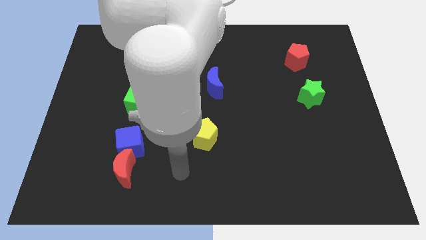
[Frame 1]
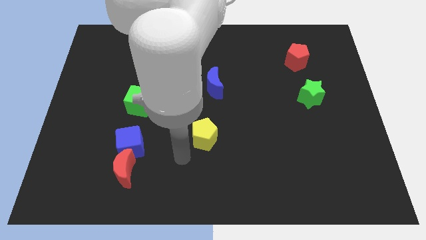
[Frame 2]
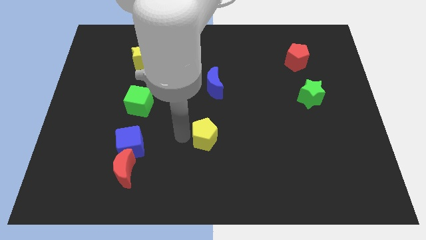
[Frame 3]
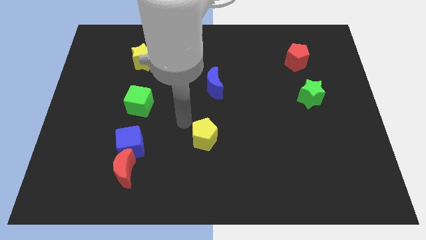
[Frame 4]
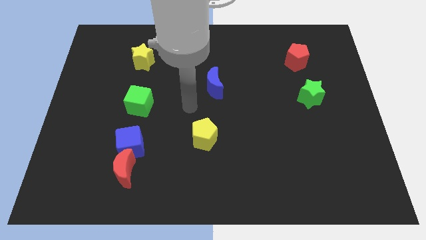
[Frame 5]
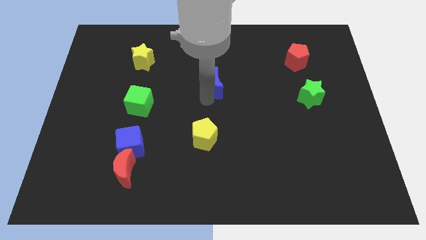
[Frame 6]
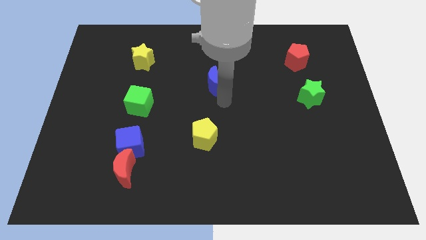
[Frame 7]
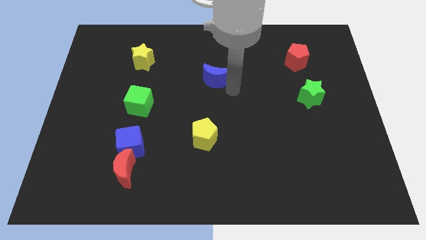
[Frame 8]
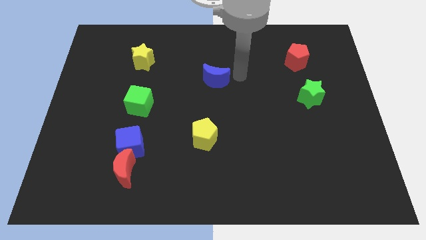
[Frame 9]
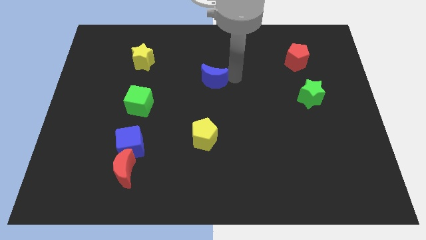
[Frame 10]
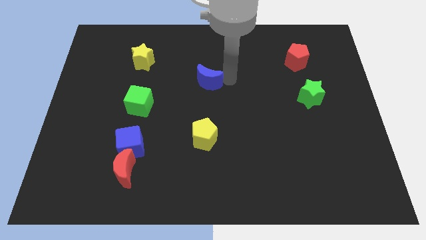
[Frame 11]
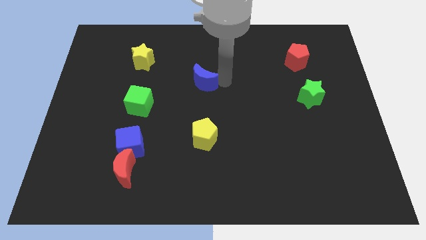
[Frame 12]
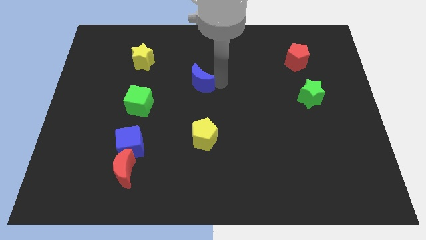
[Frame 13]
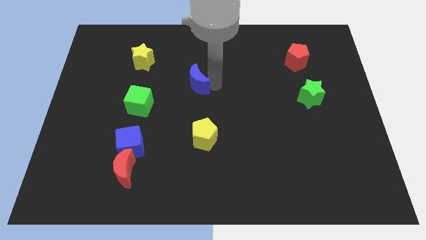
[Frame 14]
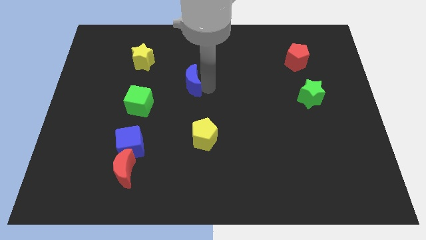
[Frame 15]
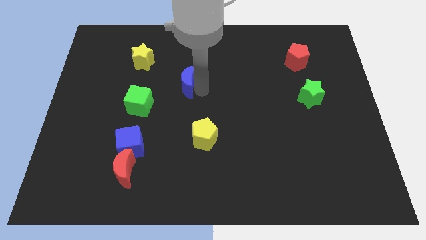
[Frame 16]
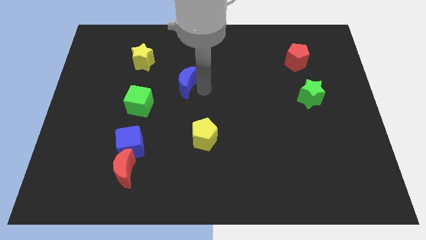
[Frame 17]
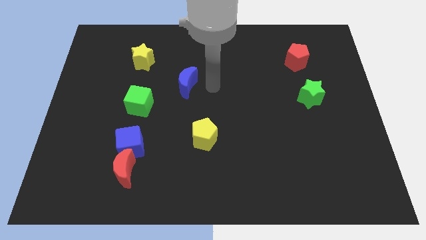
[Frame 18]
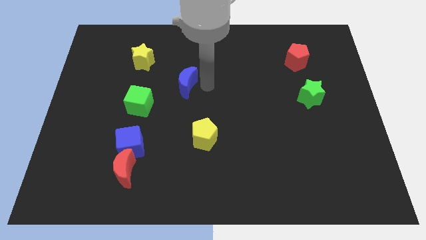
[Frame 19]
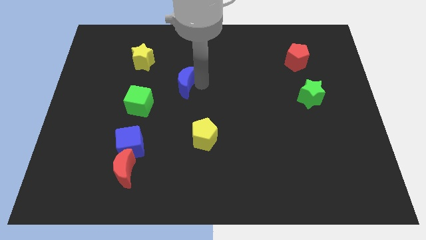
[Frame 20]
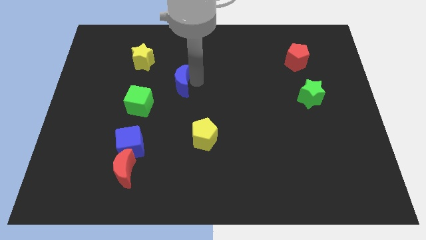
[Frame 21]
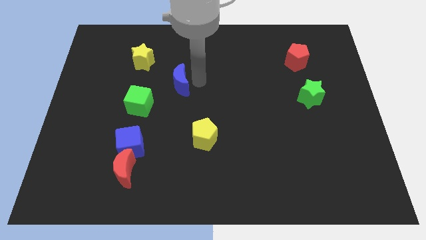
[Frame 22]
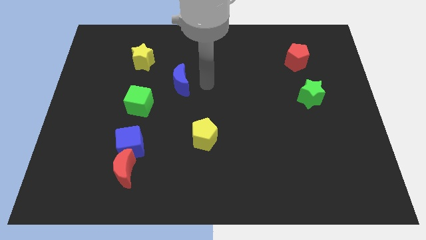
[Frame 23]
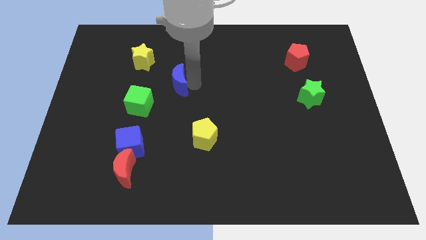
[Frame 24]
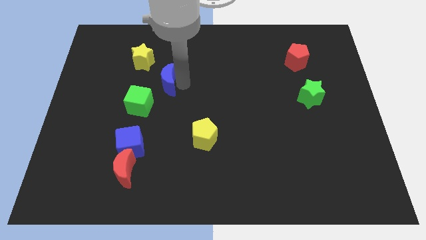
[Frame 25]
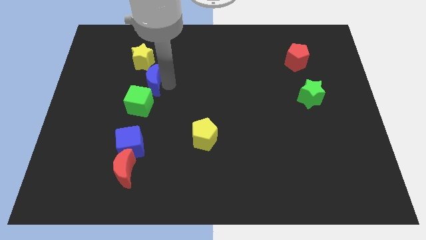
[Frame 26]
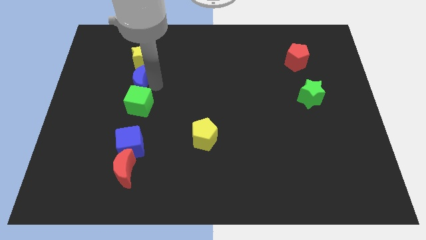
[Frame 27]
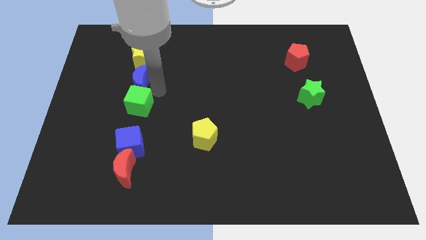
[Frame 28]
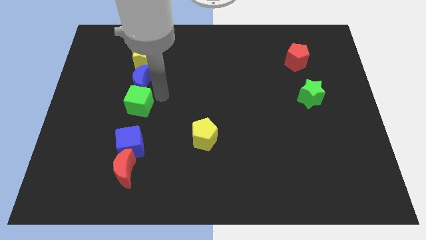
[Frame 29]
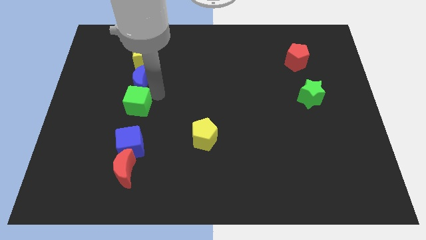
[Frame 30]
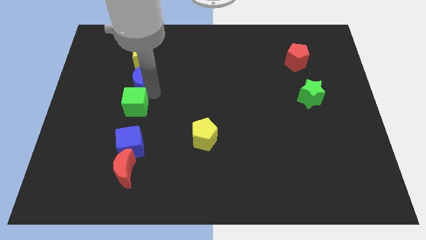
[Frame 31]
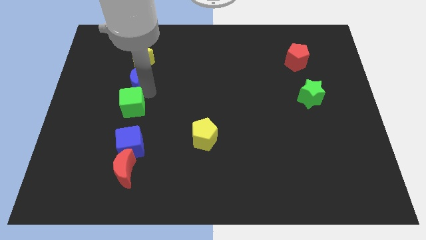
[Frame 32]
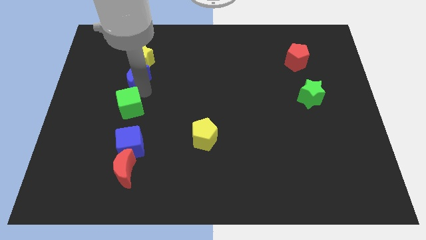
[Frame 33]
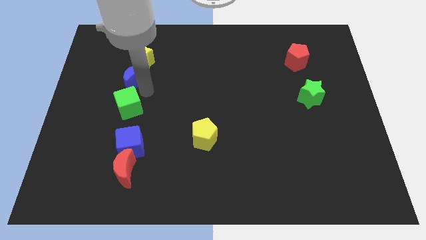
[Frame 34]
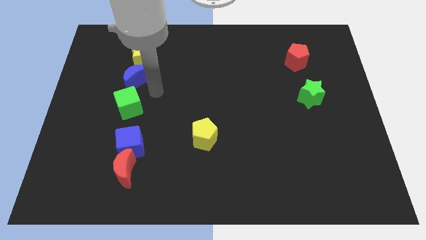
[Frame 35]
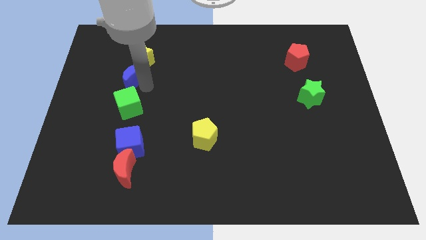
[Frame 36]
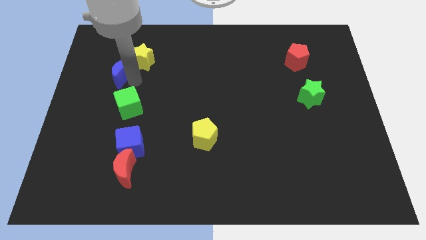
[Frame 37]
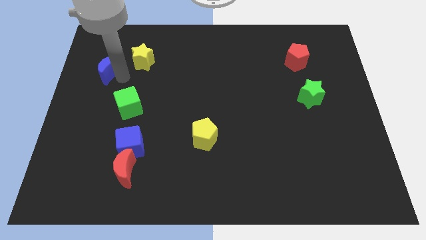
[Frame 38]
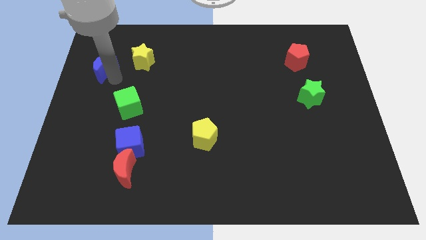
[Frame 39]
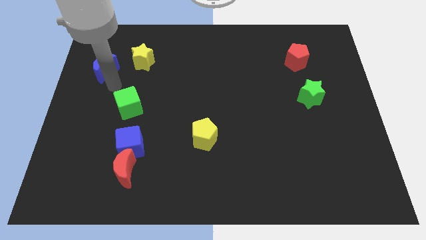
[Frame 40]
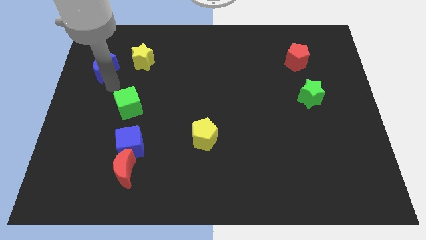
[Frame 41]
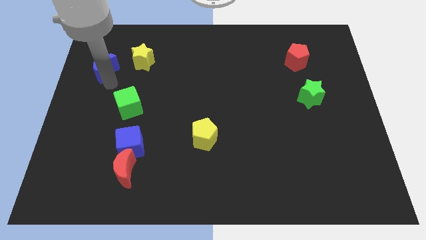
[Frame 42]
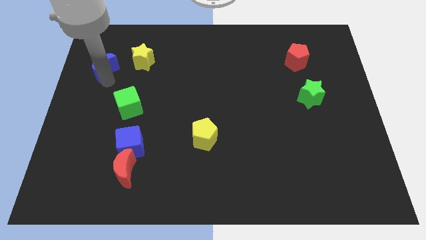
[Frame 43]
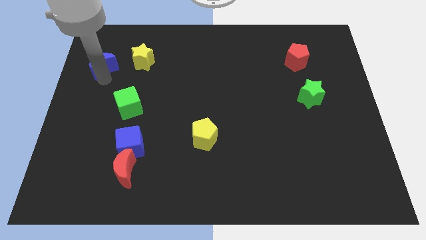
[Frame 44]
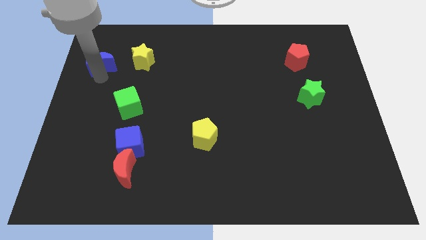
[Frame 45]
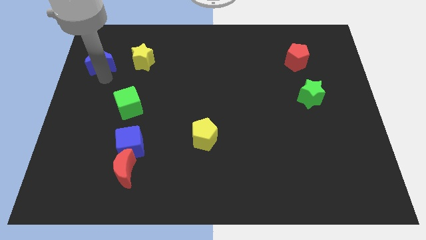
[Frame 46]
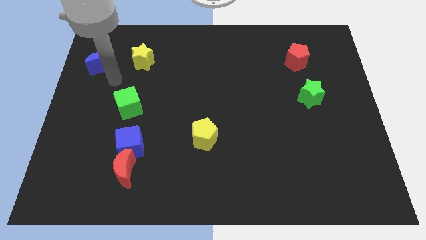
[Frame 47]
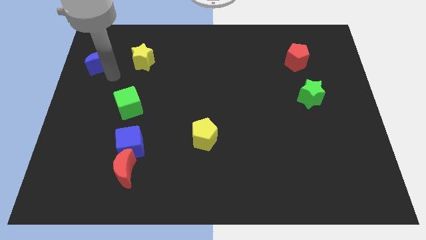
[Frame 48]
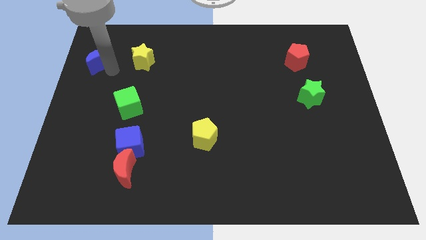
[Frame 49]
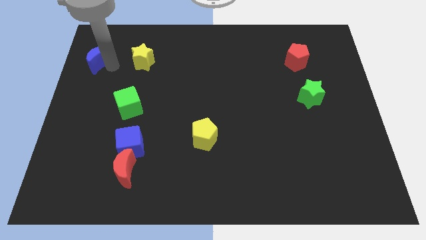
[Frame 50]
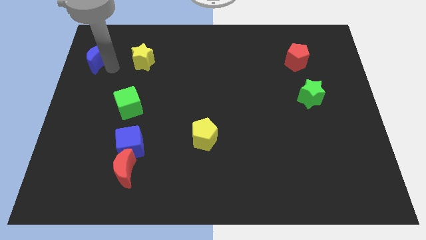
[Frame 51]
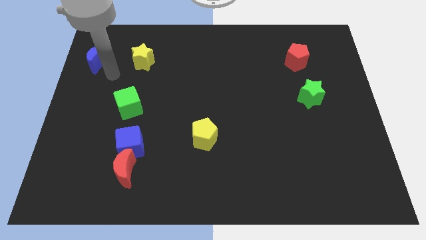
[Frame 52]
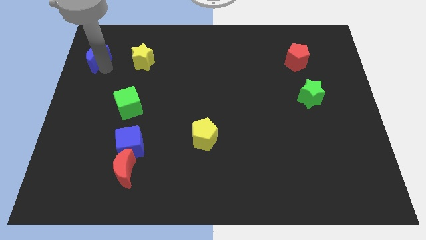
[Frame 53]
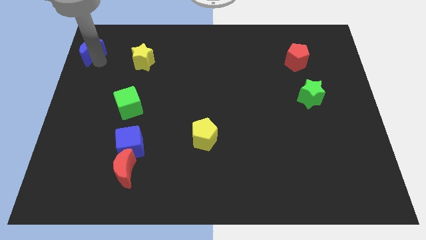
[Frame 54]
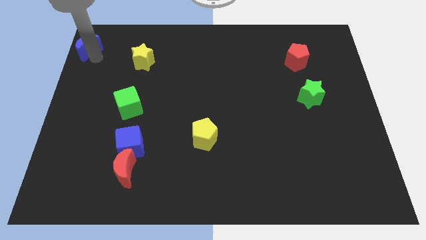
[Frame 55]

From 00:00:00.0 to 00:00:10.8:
slide the blue moon to the top left corner
